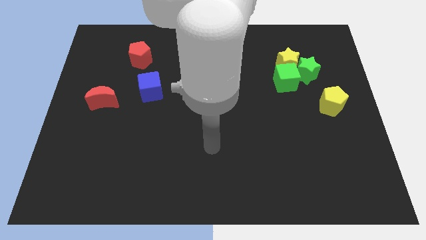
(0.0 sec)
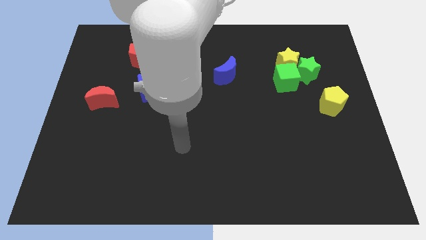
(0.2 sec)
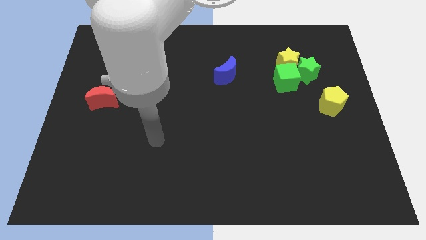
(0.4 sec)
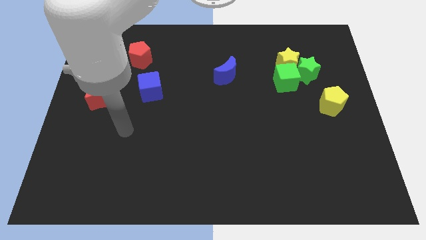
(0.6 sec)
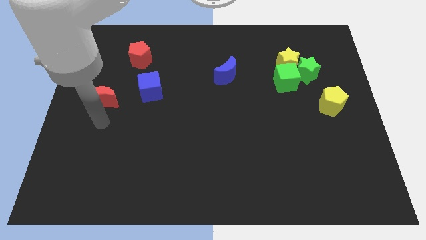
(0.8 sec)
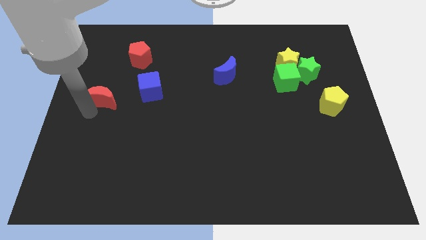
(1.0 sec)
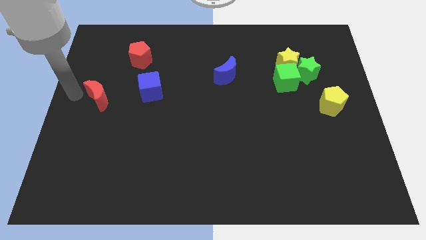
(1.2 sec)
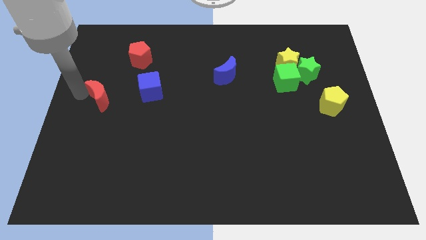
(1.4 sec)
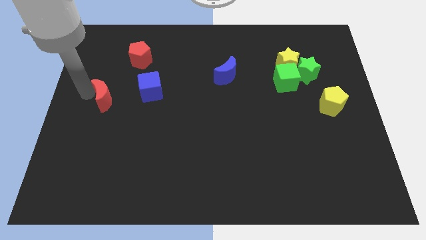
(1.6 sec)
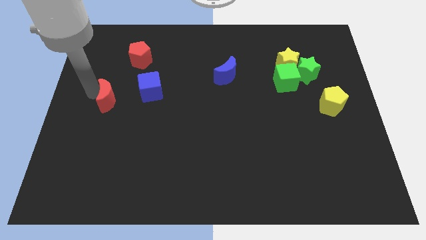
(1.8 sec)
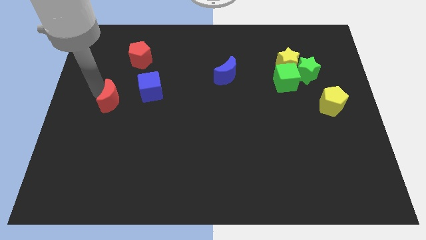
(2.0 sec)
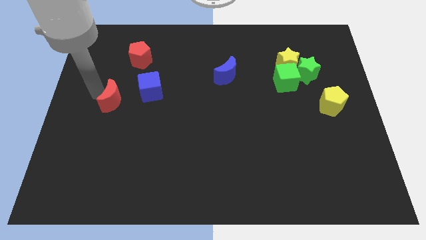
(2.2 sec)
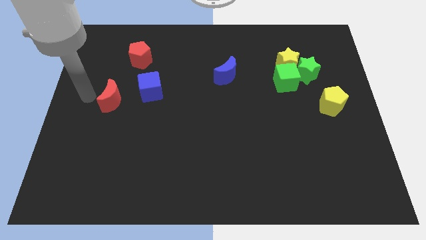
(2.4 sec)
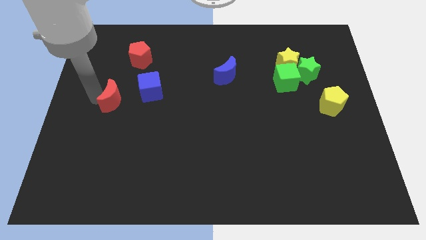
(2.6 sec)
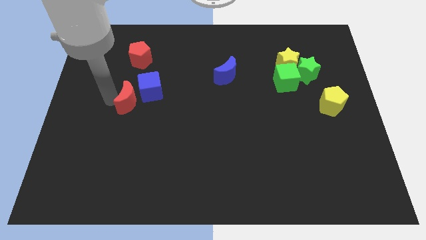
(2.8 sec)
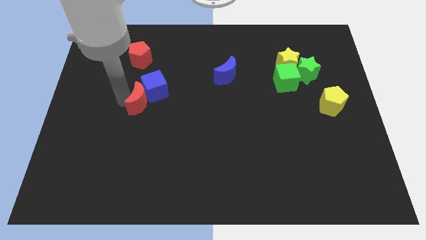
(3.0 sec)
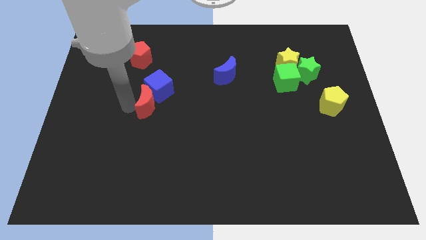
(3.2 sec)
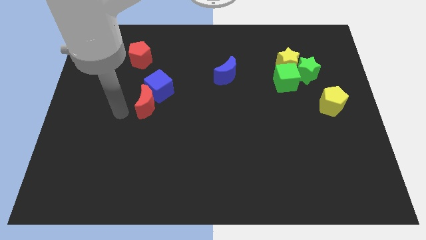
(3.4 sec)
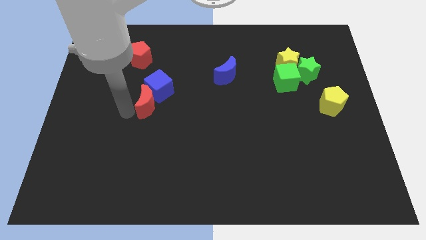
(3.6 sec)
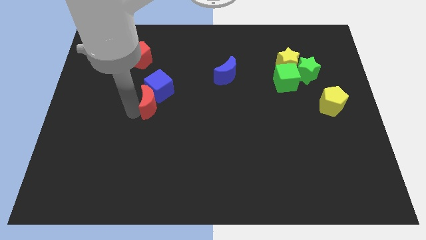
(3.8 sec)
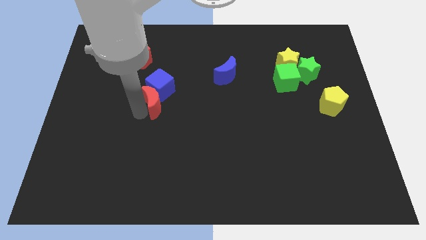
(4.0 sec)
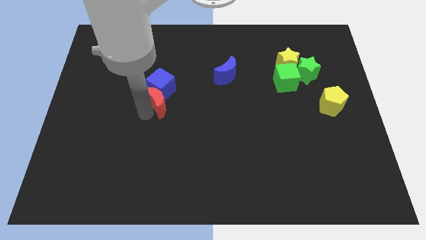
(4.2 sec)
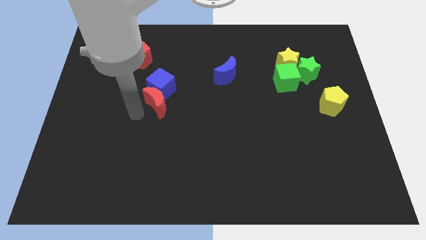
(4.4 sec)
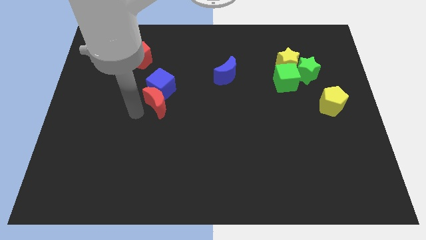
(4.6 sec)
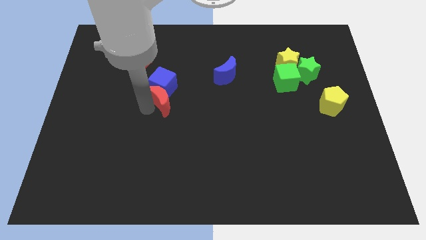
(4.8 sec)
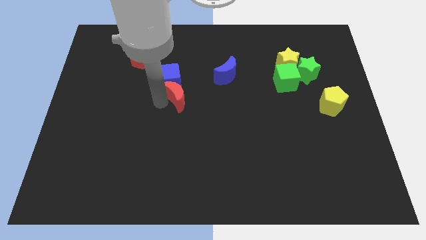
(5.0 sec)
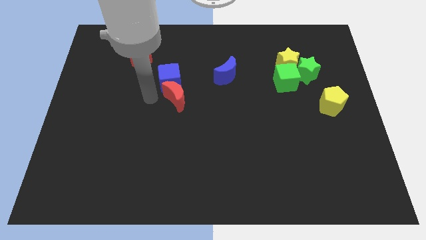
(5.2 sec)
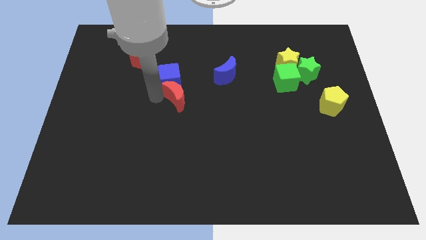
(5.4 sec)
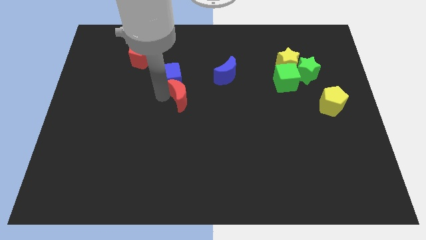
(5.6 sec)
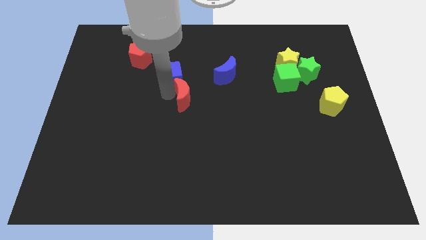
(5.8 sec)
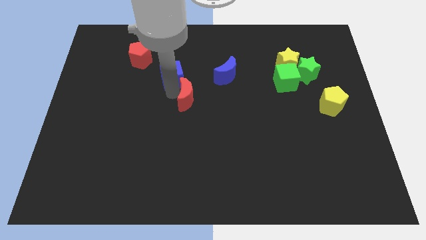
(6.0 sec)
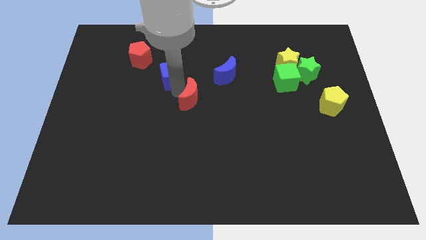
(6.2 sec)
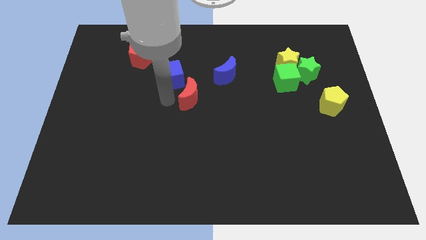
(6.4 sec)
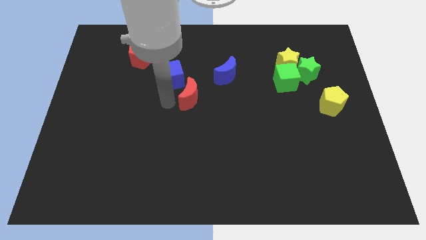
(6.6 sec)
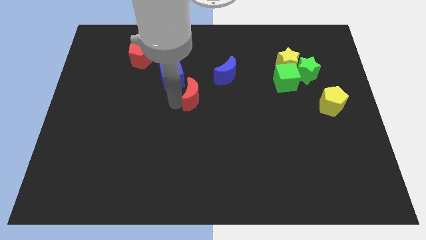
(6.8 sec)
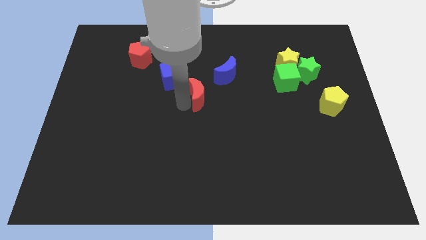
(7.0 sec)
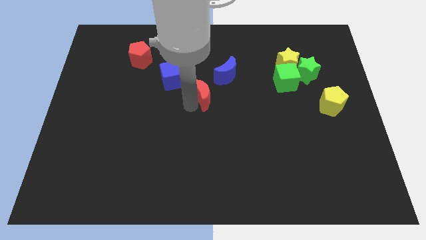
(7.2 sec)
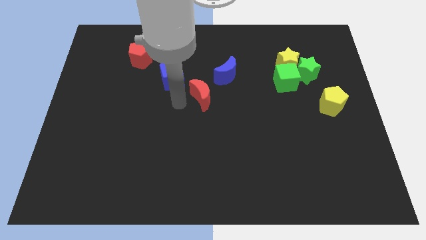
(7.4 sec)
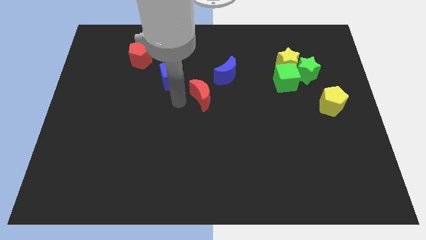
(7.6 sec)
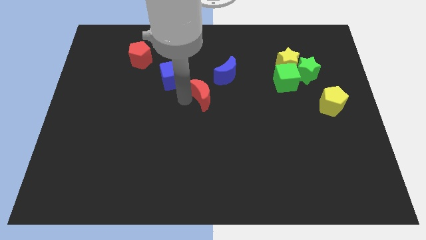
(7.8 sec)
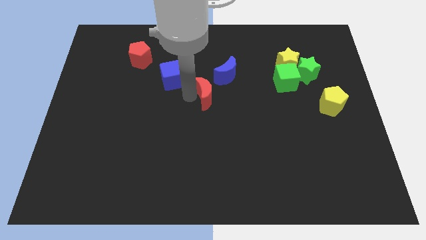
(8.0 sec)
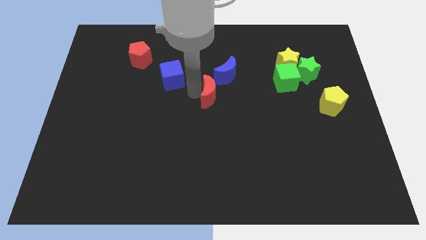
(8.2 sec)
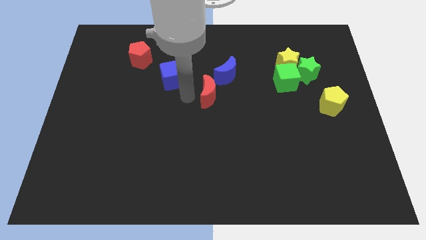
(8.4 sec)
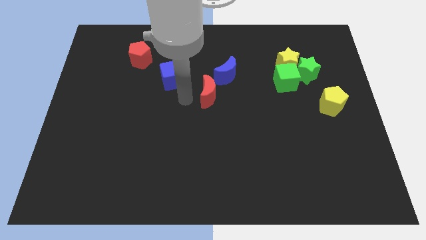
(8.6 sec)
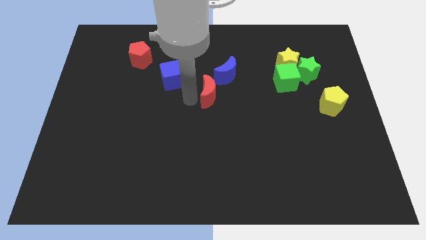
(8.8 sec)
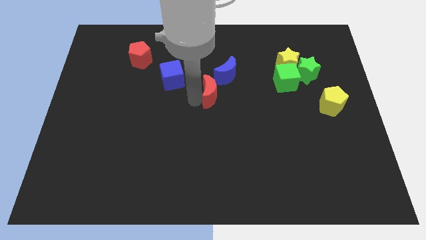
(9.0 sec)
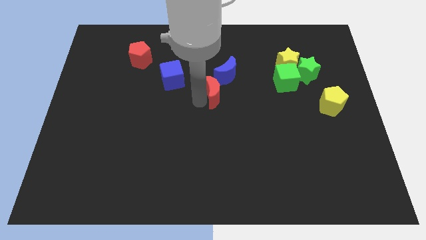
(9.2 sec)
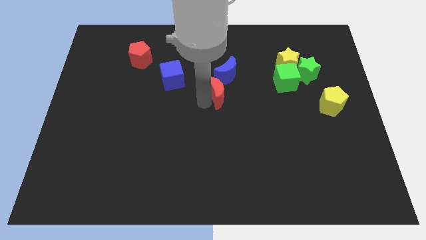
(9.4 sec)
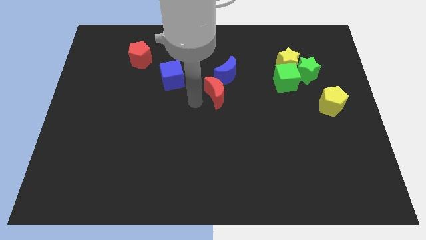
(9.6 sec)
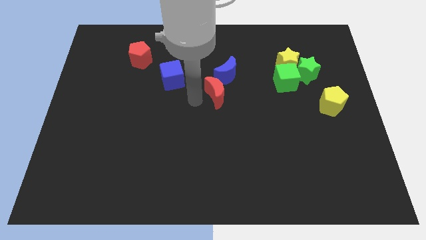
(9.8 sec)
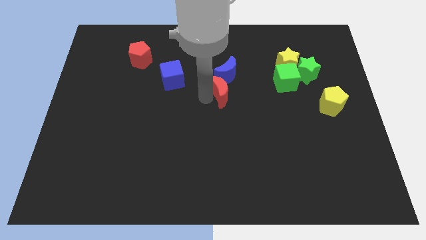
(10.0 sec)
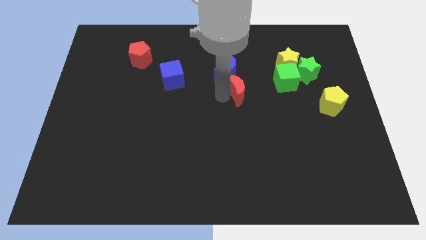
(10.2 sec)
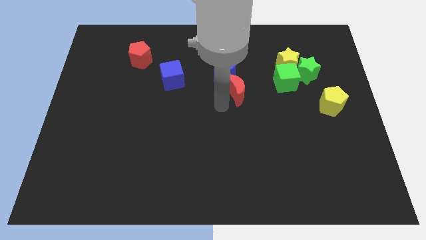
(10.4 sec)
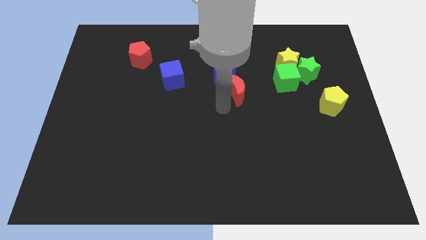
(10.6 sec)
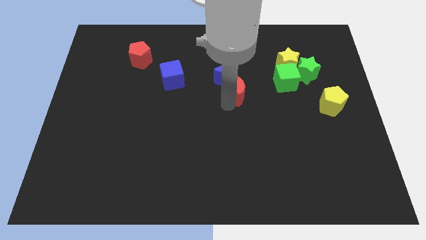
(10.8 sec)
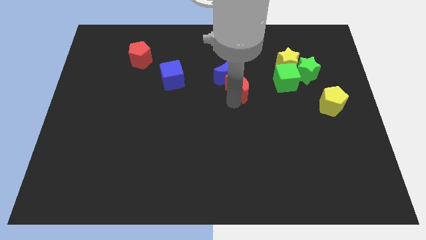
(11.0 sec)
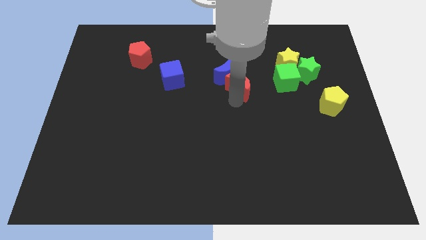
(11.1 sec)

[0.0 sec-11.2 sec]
push the red moon right of the blue moon
